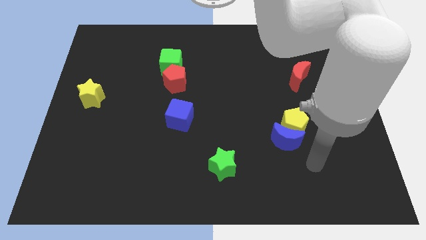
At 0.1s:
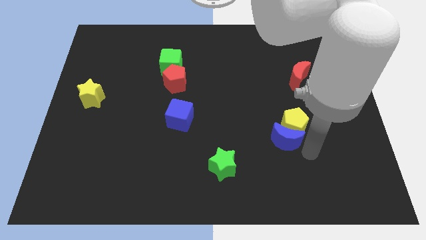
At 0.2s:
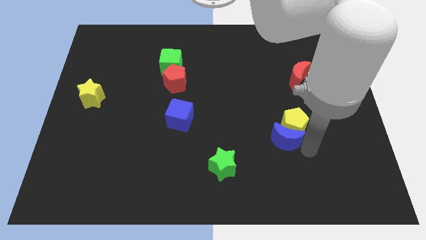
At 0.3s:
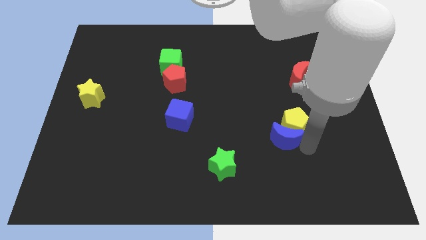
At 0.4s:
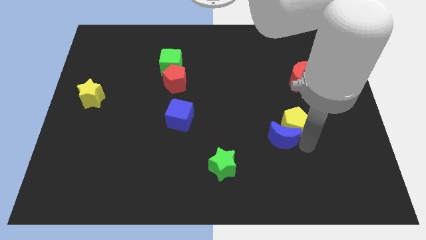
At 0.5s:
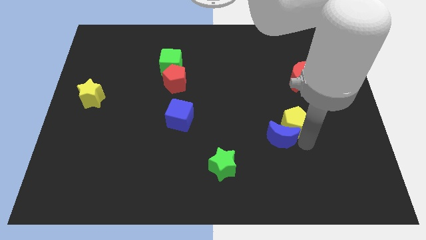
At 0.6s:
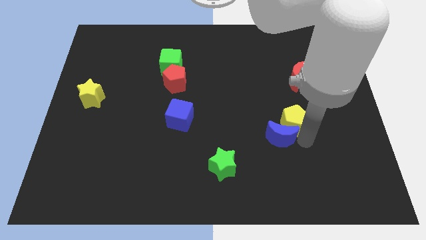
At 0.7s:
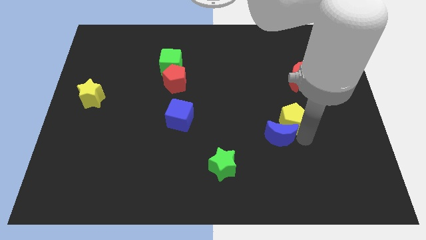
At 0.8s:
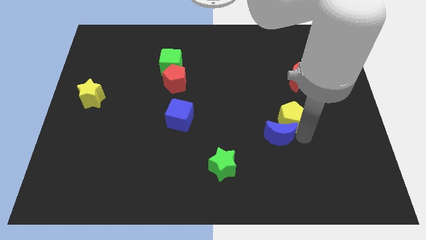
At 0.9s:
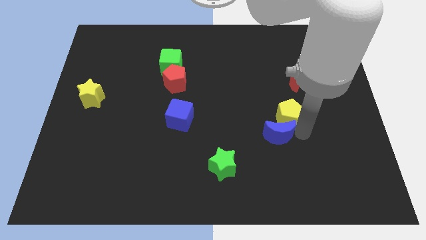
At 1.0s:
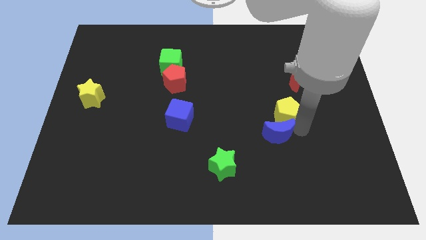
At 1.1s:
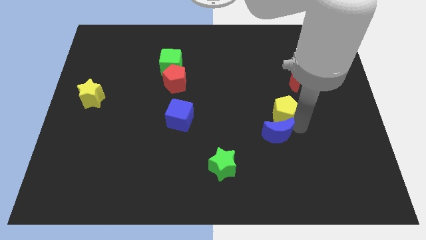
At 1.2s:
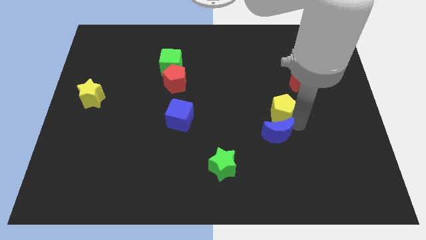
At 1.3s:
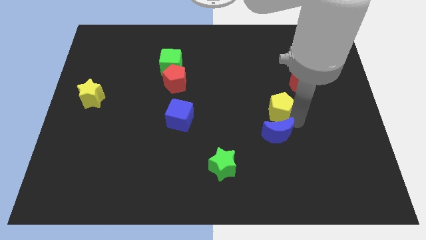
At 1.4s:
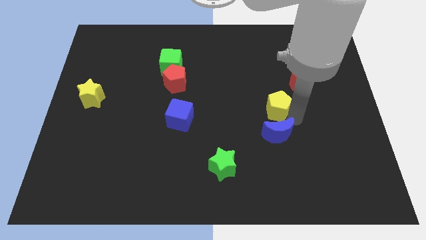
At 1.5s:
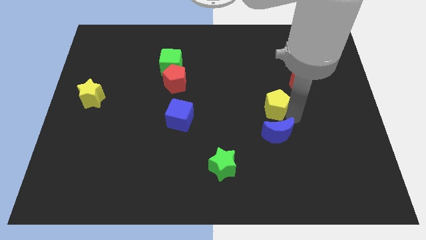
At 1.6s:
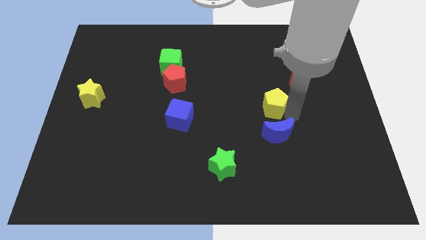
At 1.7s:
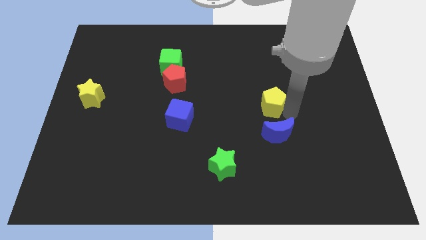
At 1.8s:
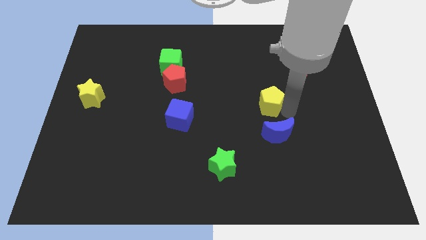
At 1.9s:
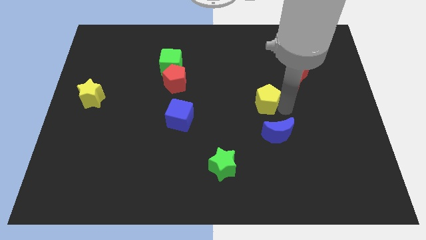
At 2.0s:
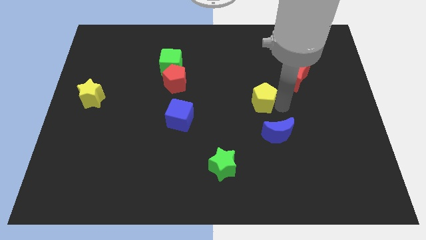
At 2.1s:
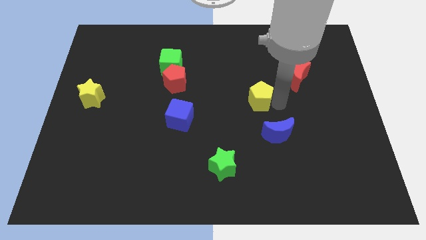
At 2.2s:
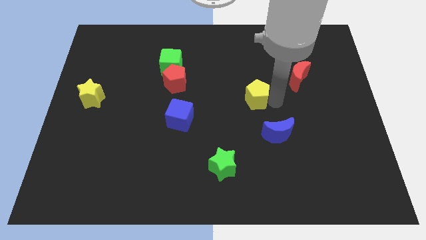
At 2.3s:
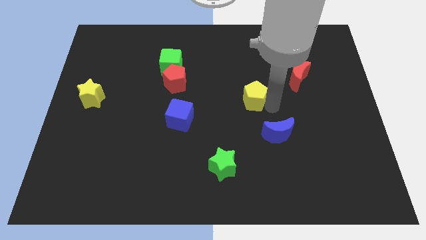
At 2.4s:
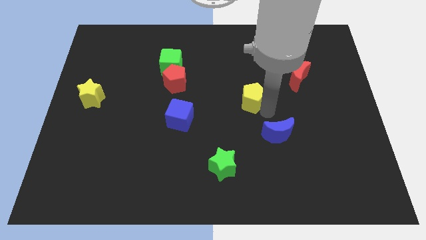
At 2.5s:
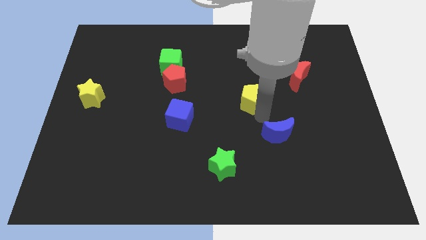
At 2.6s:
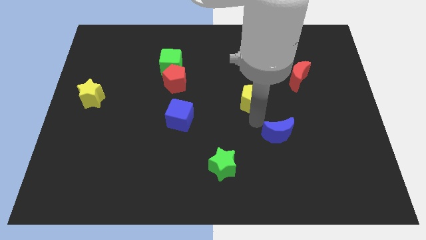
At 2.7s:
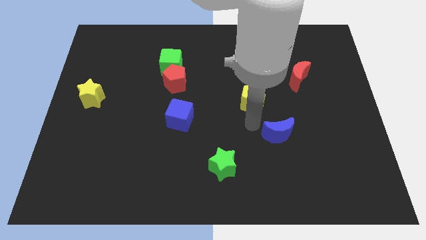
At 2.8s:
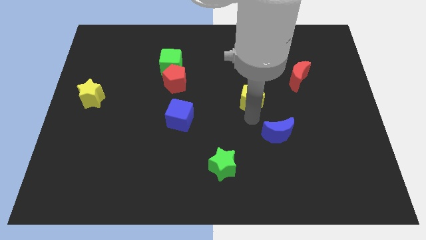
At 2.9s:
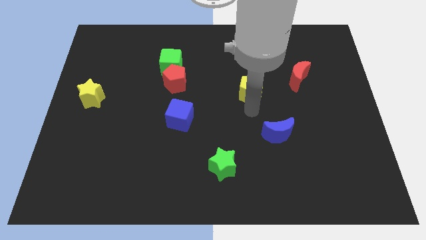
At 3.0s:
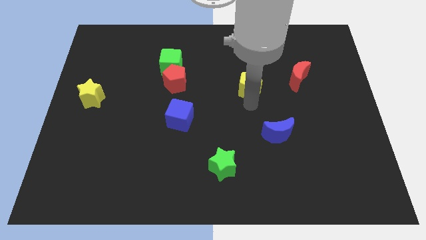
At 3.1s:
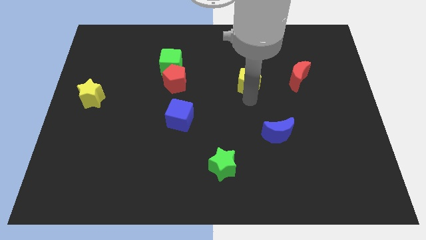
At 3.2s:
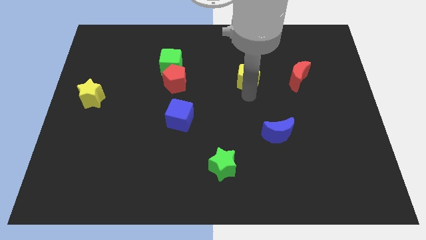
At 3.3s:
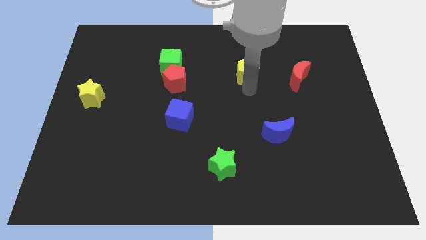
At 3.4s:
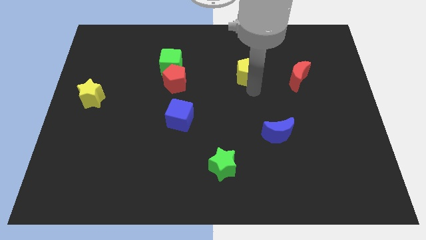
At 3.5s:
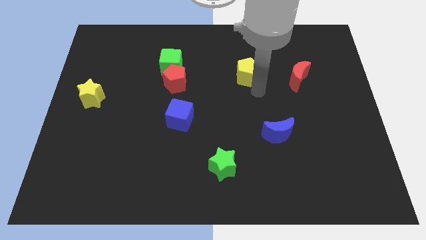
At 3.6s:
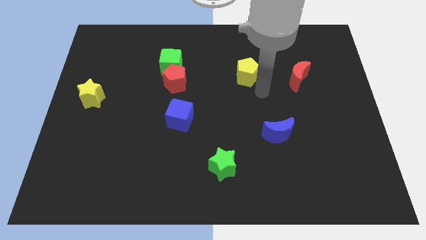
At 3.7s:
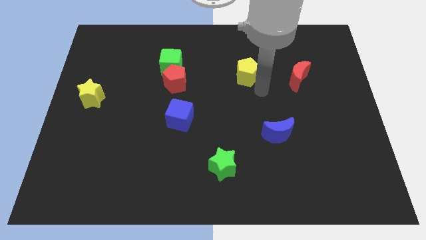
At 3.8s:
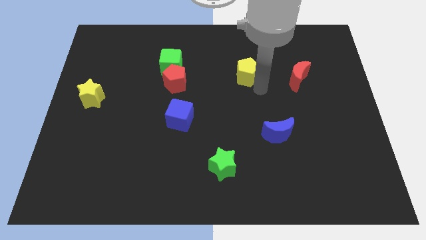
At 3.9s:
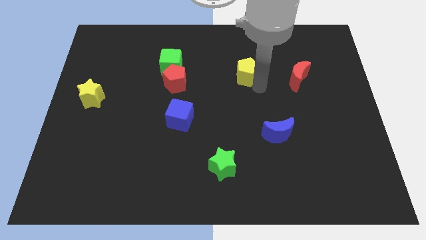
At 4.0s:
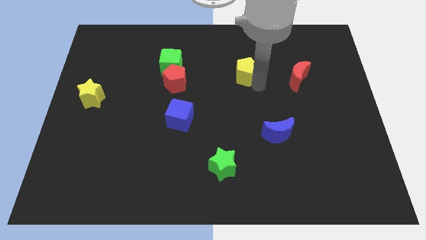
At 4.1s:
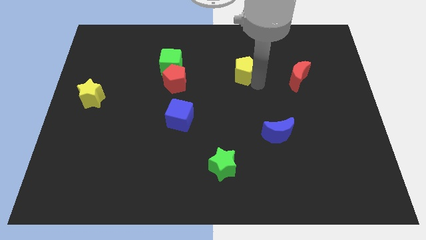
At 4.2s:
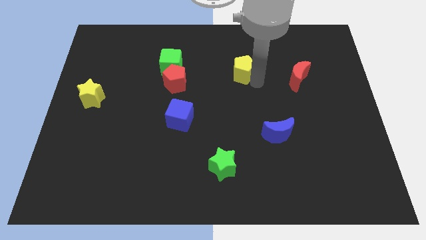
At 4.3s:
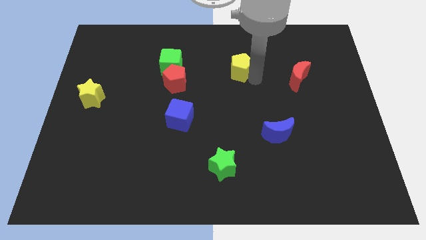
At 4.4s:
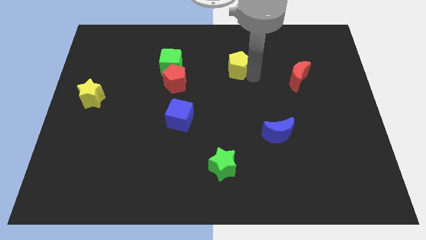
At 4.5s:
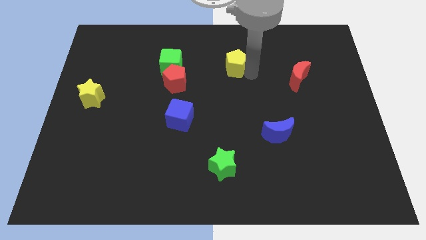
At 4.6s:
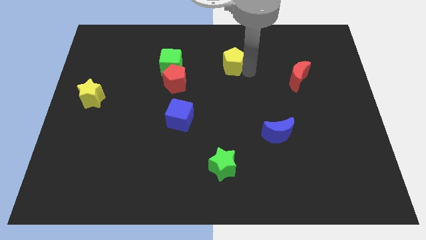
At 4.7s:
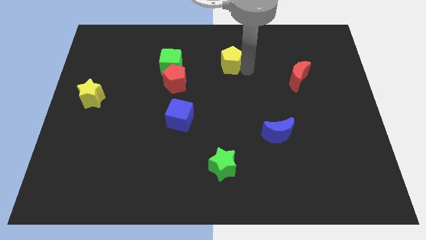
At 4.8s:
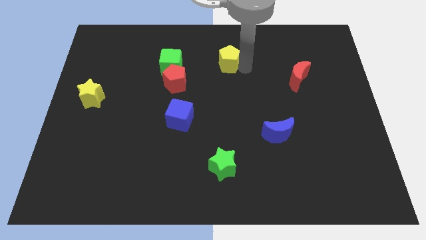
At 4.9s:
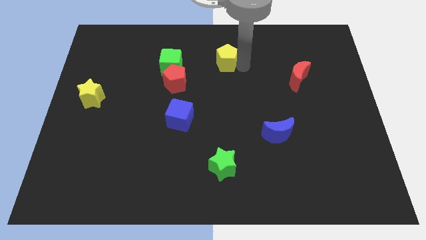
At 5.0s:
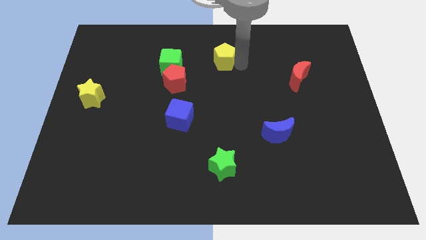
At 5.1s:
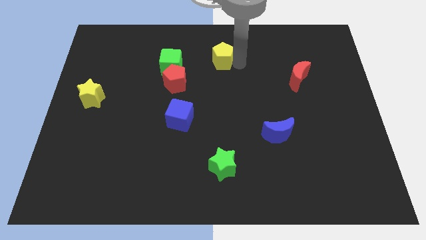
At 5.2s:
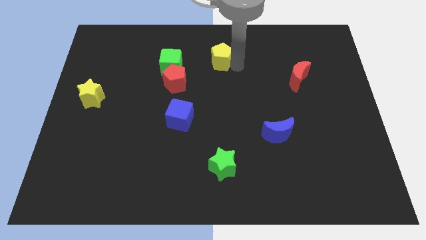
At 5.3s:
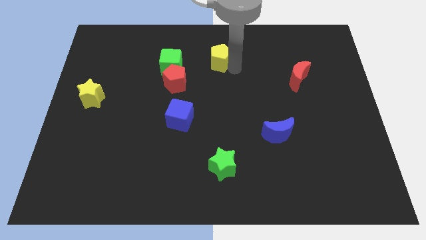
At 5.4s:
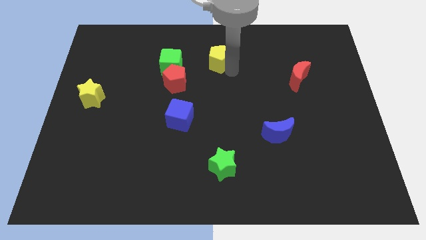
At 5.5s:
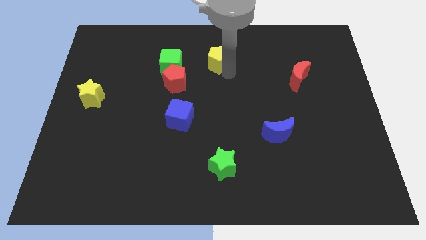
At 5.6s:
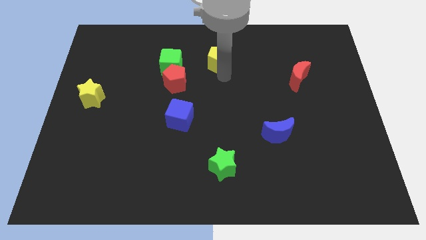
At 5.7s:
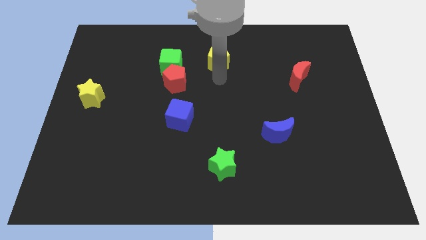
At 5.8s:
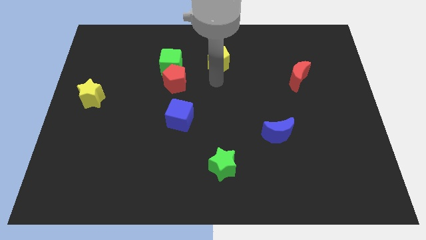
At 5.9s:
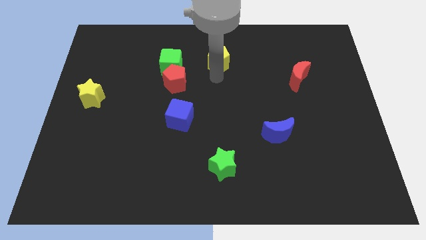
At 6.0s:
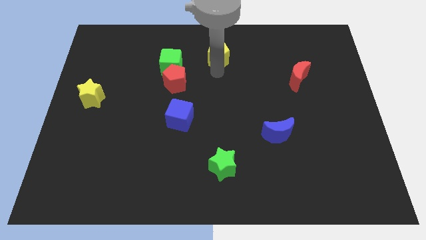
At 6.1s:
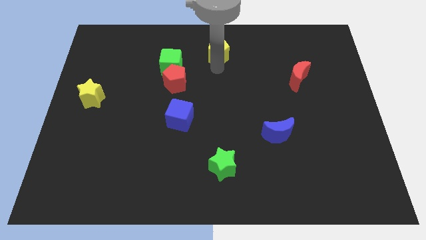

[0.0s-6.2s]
put the yellow pentagon to the towards your base

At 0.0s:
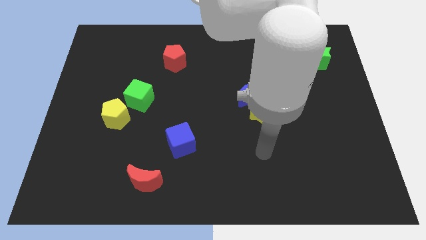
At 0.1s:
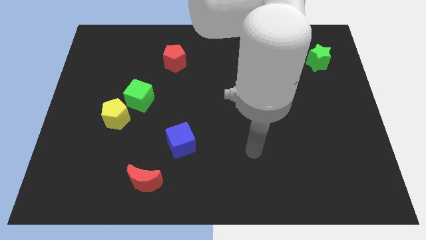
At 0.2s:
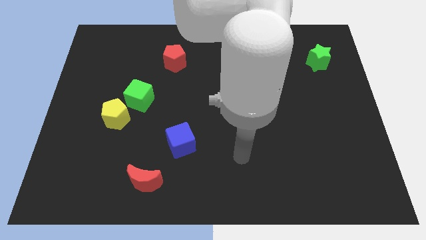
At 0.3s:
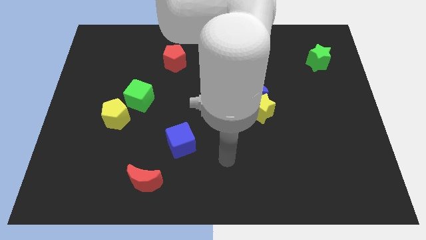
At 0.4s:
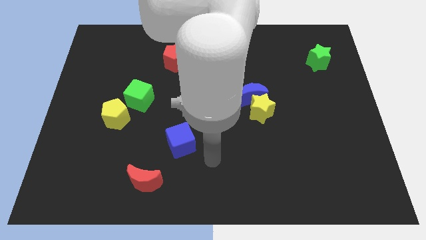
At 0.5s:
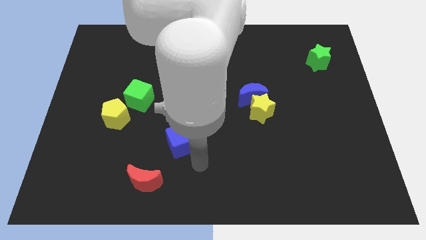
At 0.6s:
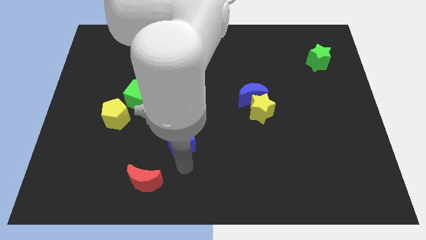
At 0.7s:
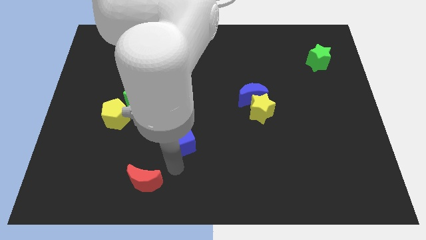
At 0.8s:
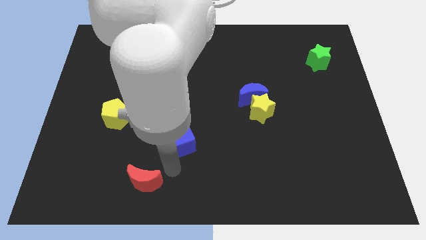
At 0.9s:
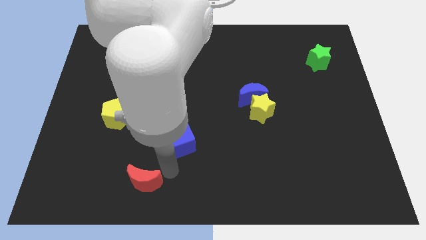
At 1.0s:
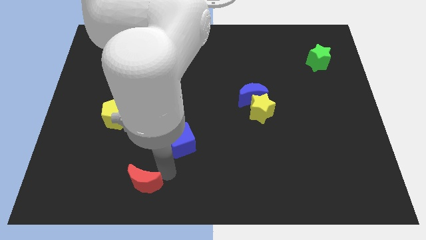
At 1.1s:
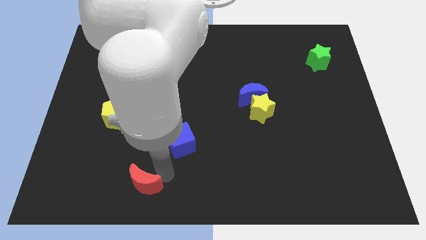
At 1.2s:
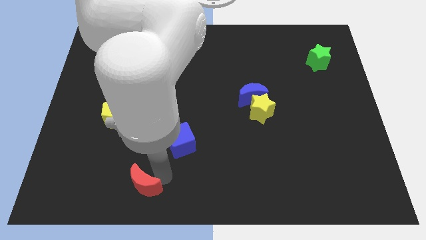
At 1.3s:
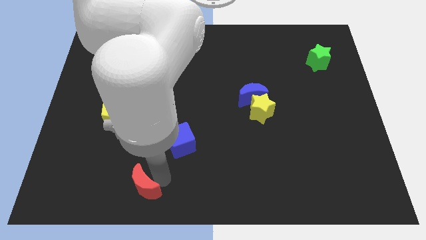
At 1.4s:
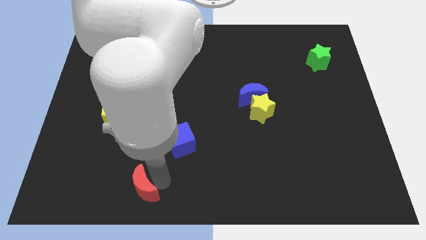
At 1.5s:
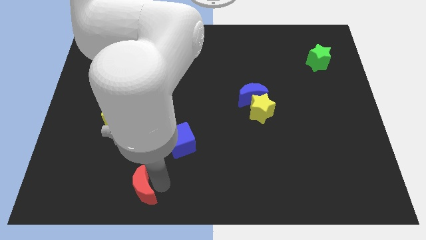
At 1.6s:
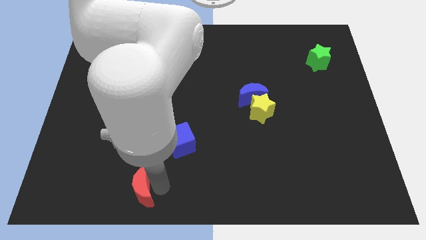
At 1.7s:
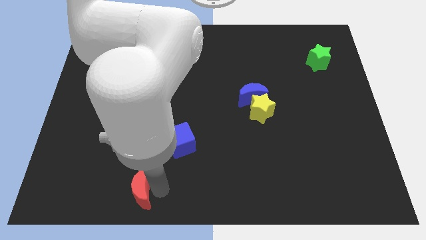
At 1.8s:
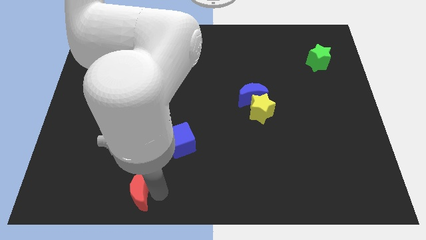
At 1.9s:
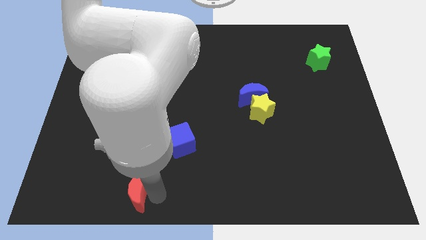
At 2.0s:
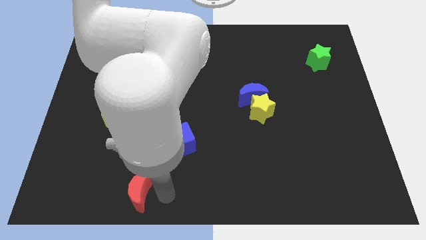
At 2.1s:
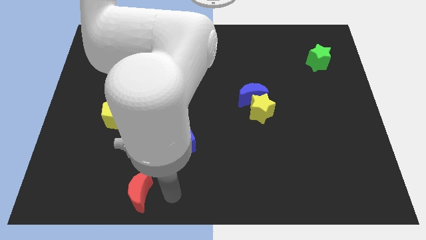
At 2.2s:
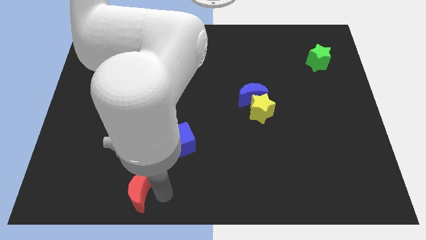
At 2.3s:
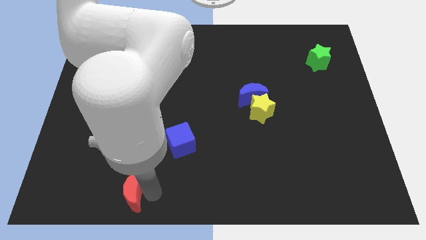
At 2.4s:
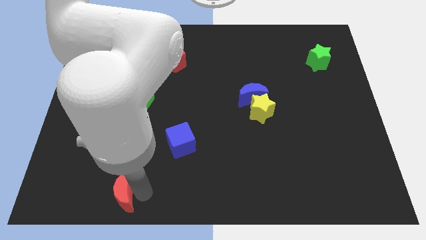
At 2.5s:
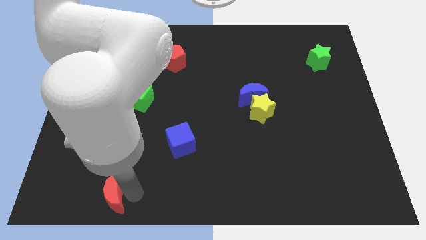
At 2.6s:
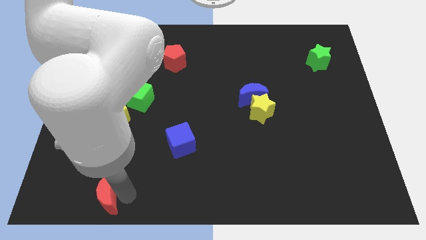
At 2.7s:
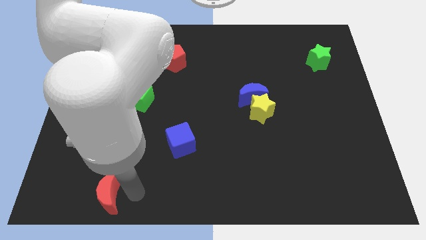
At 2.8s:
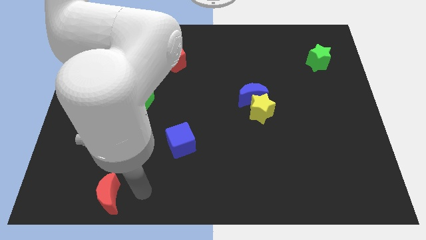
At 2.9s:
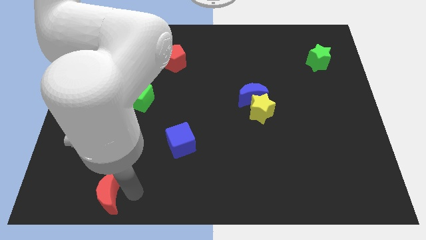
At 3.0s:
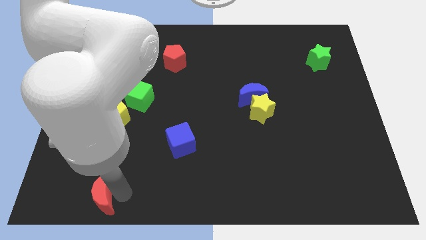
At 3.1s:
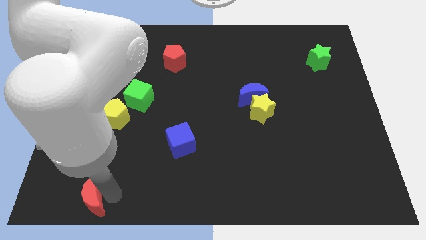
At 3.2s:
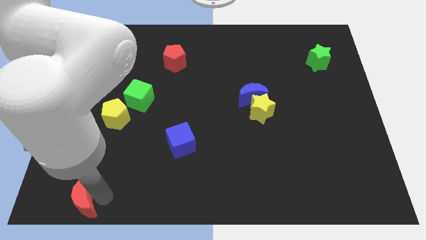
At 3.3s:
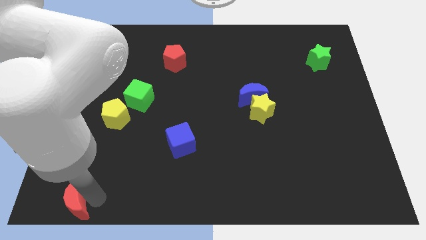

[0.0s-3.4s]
move the red moon to the bottom left corner
